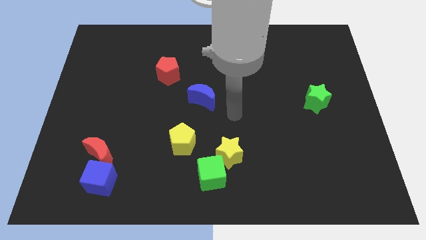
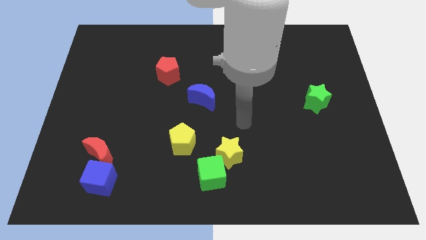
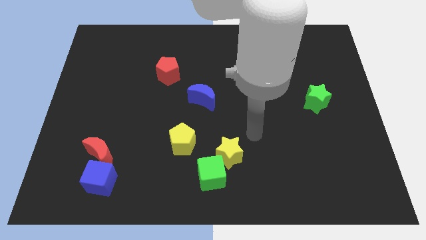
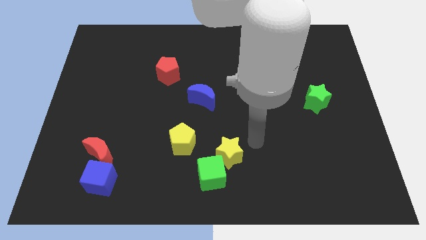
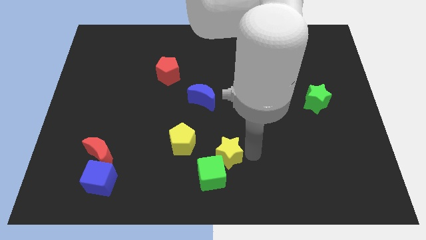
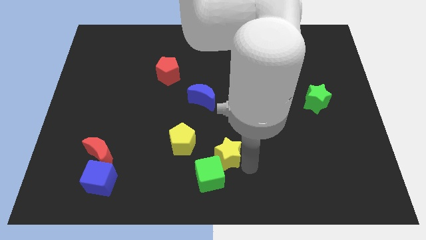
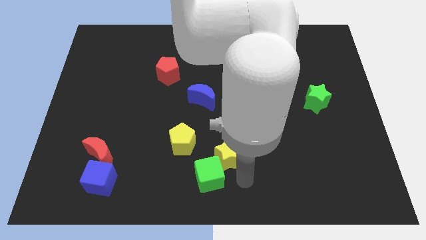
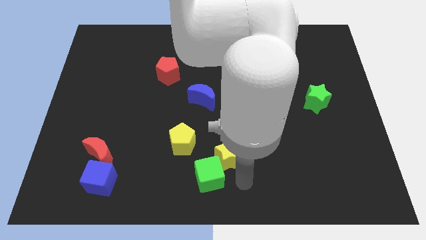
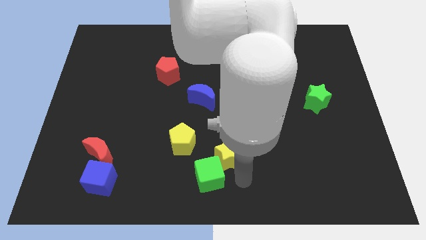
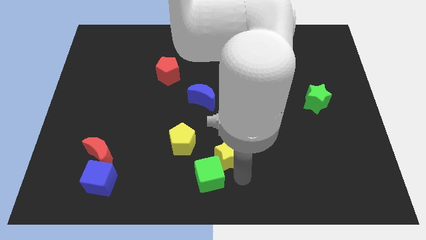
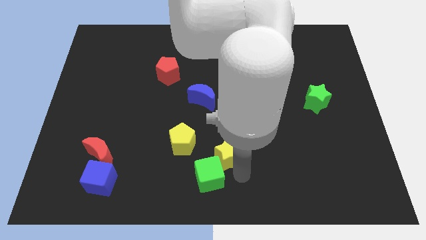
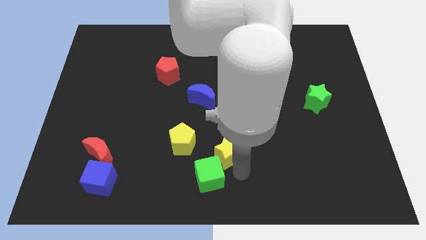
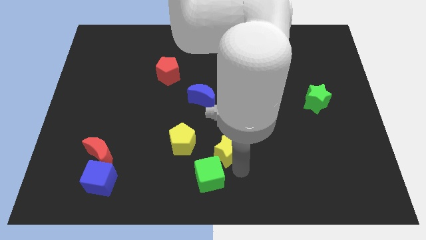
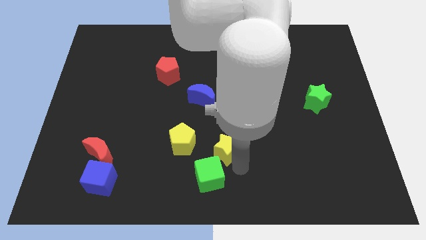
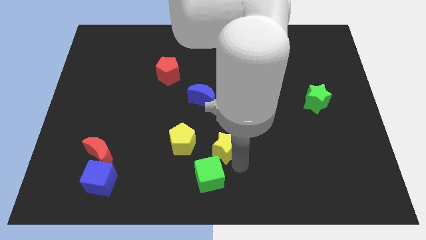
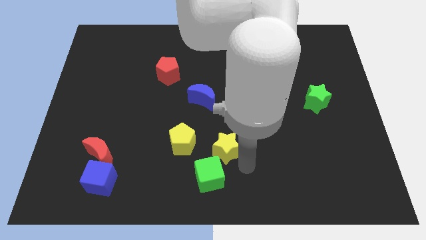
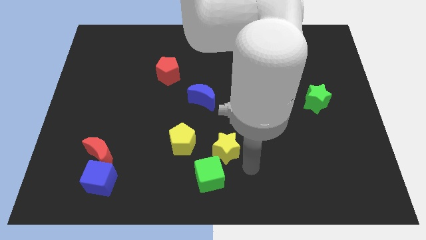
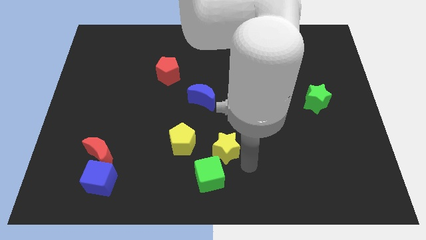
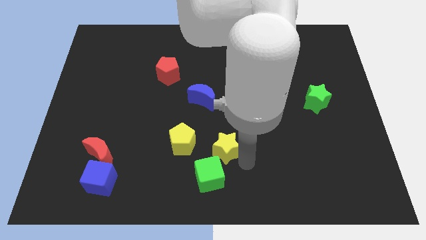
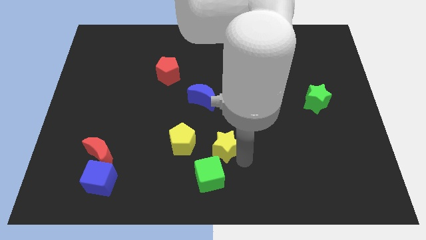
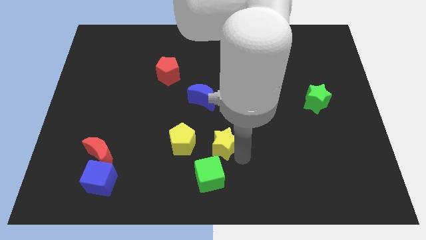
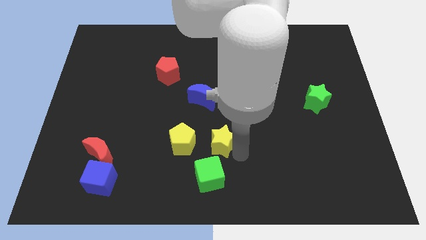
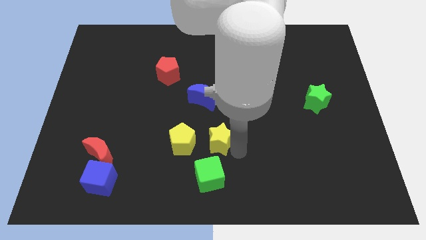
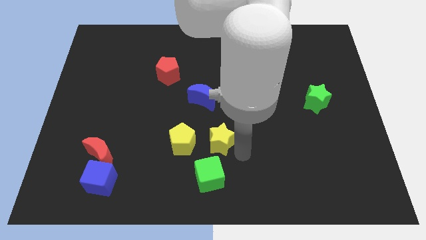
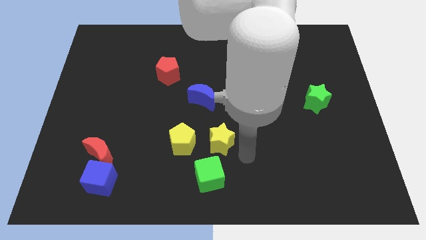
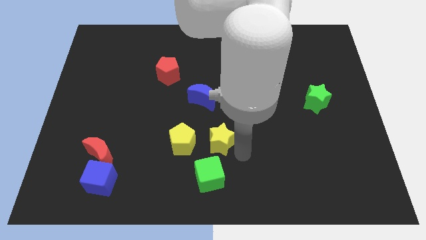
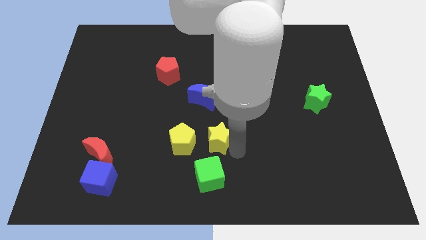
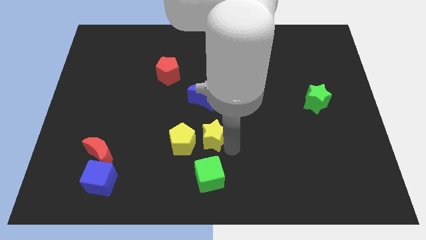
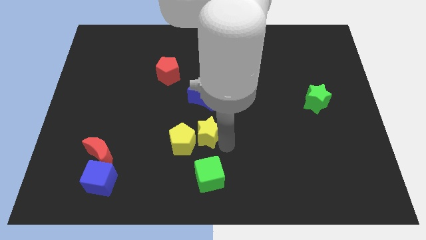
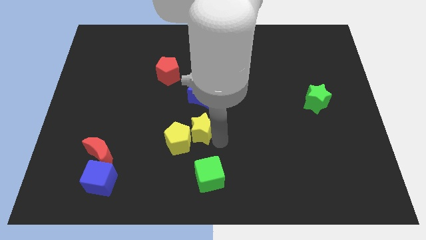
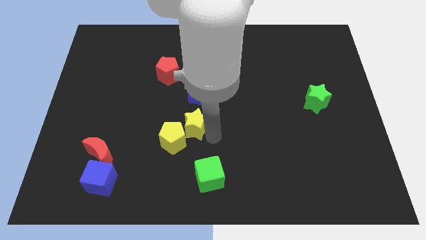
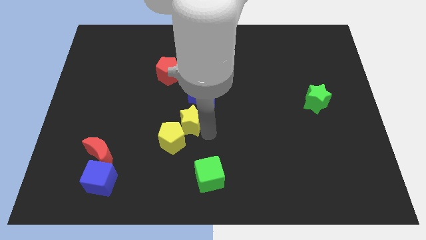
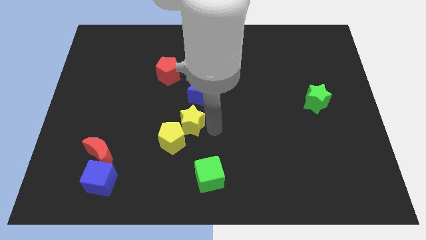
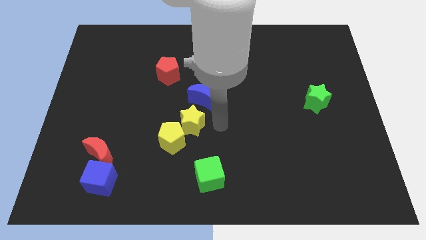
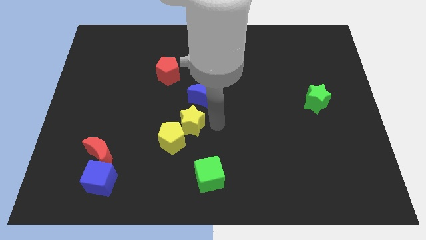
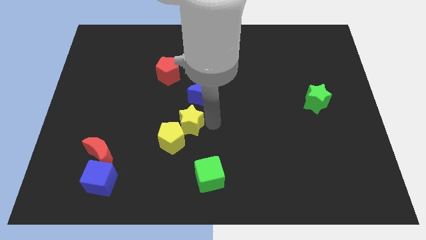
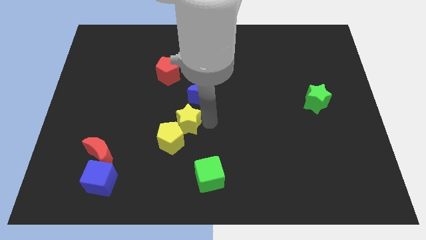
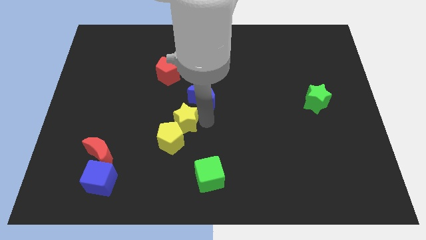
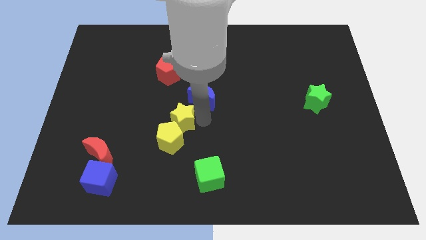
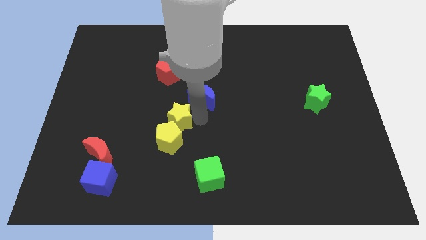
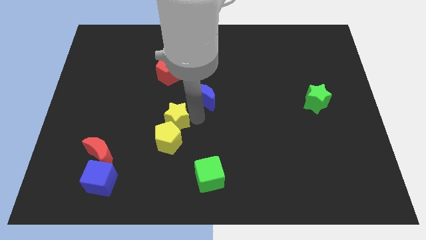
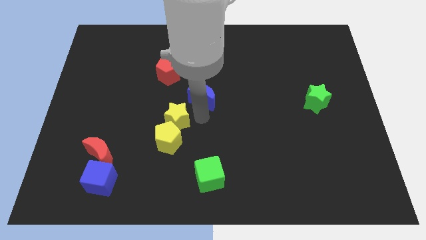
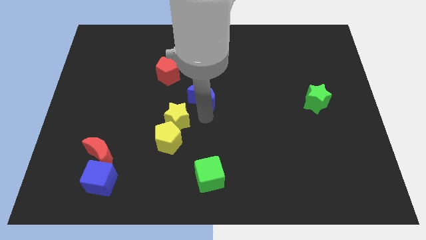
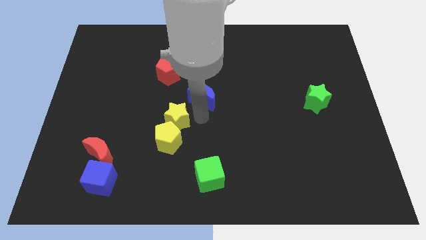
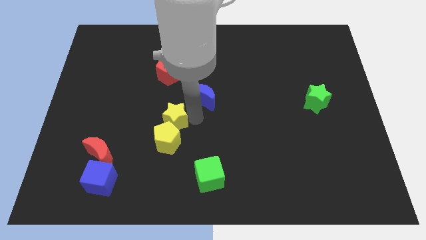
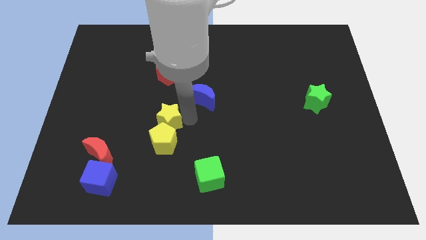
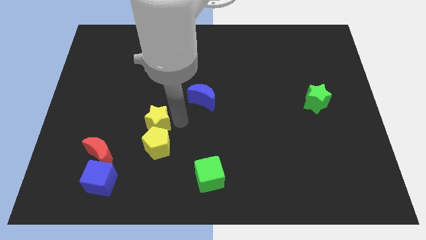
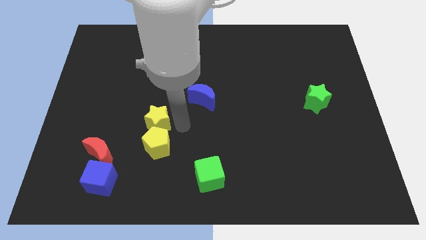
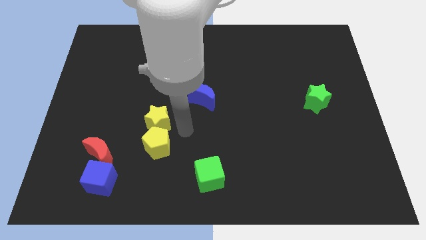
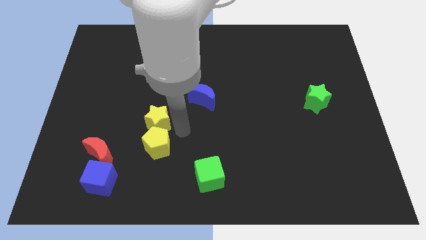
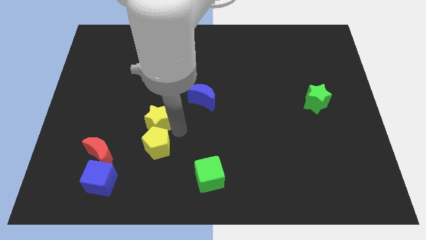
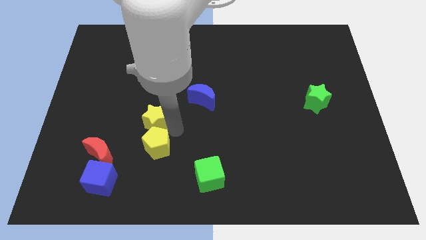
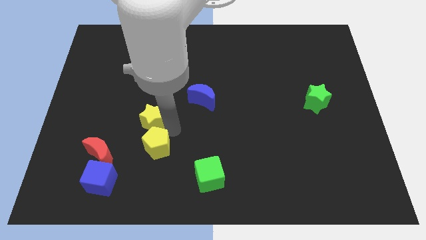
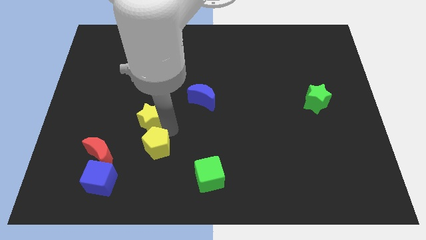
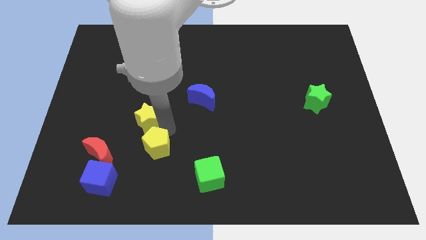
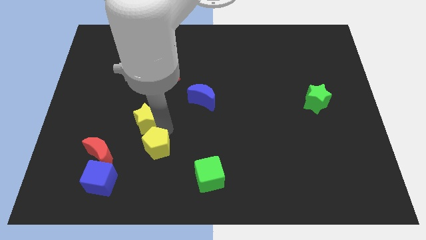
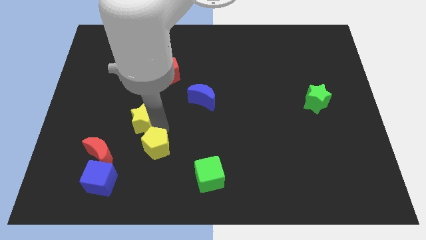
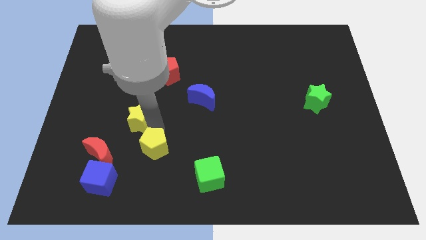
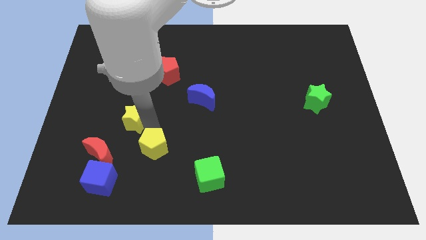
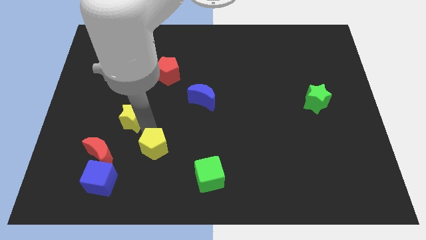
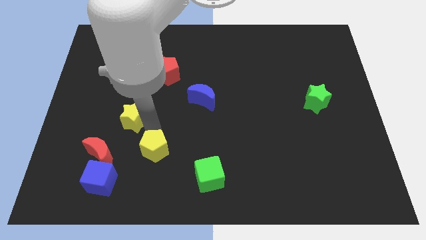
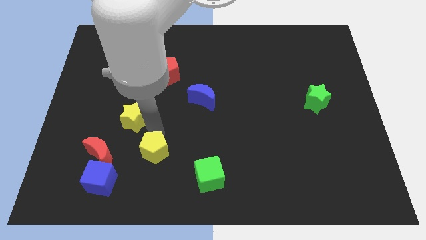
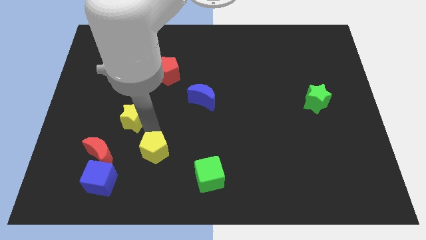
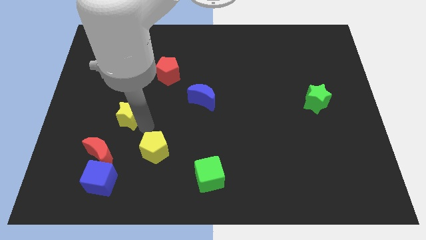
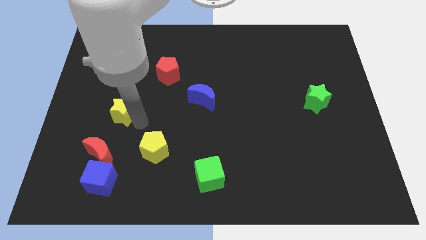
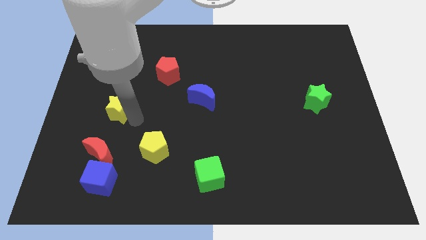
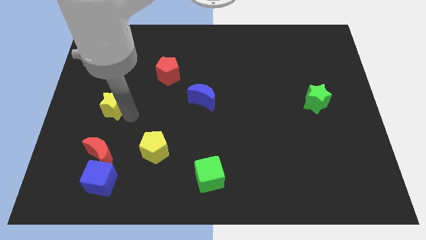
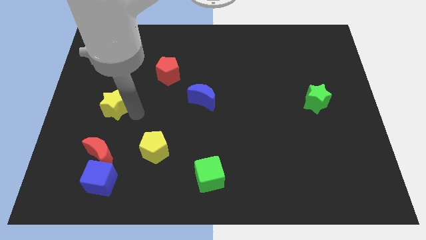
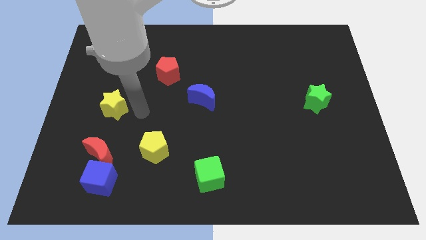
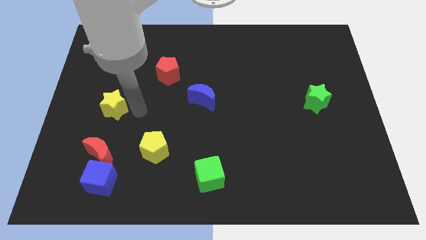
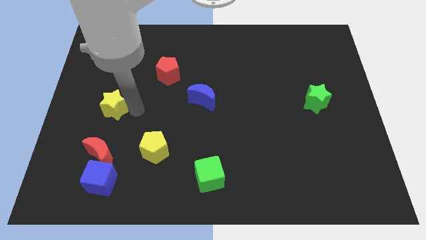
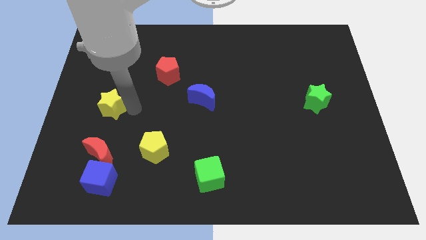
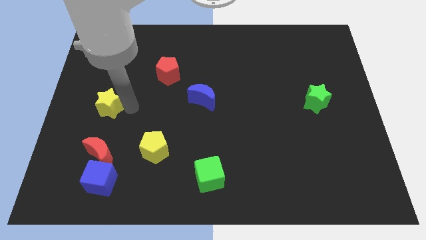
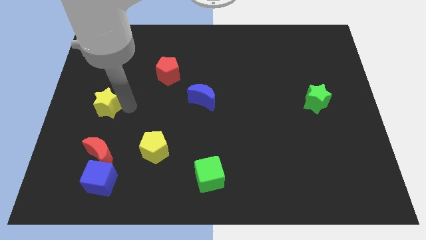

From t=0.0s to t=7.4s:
move the yellow star to the left side

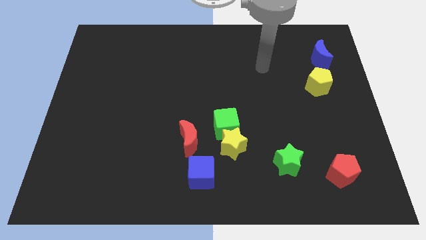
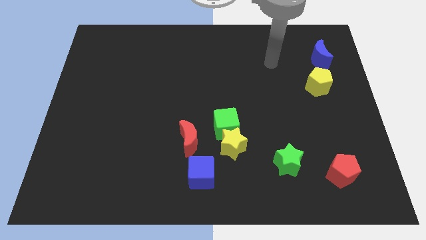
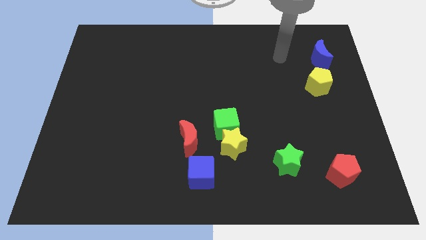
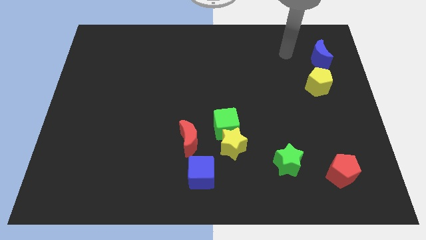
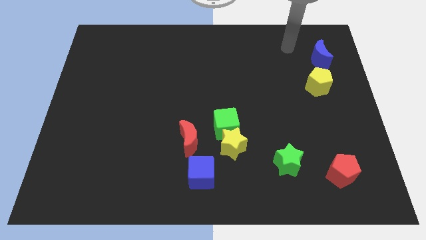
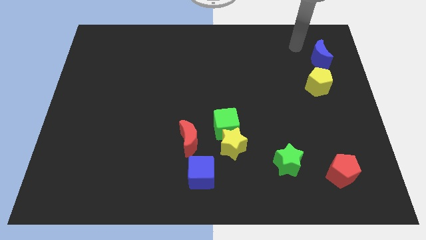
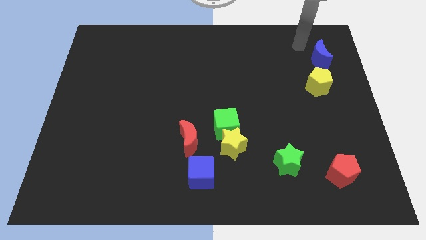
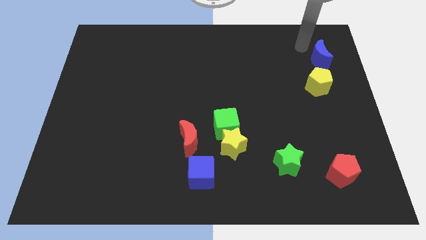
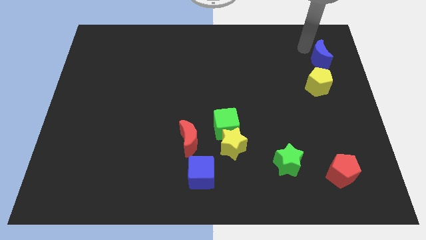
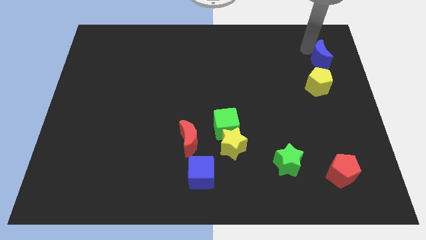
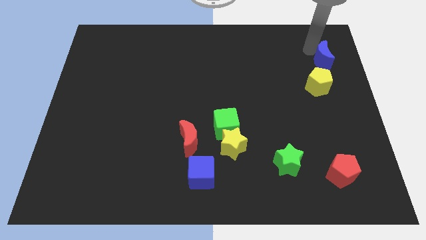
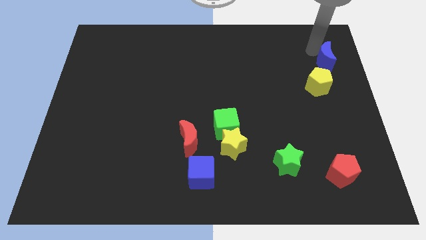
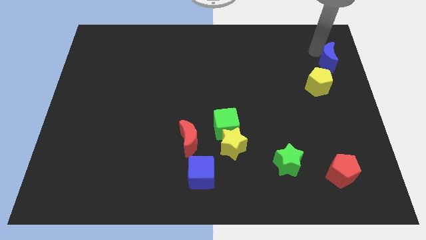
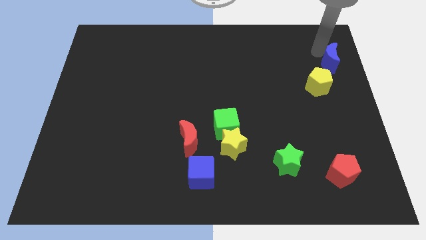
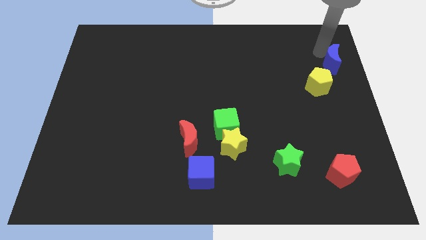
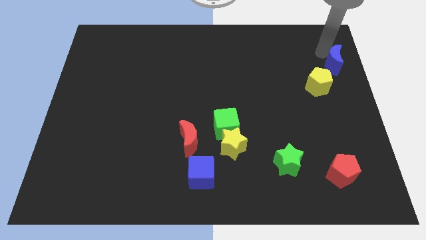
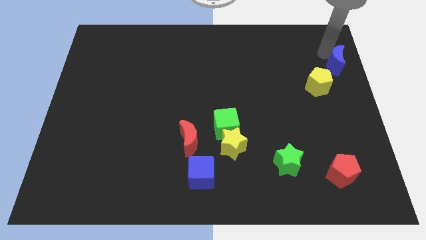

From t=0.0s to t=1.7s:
slide the blue moon to the center right
